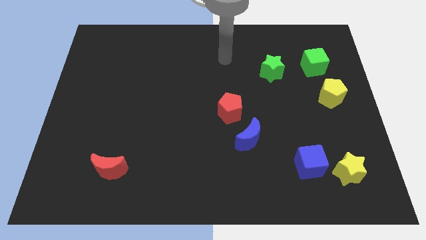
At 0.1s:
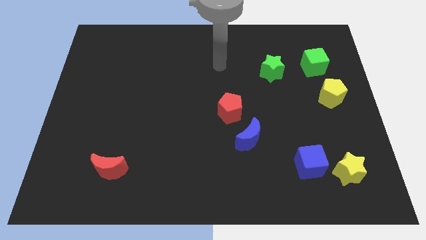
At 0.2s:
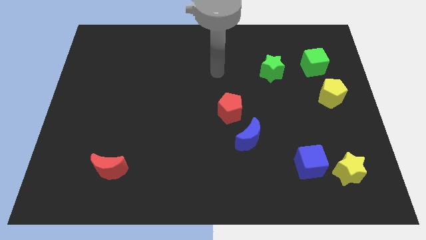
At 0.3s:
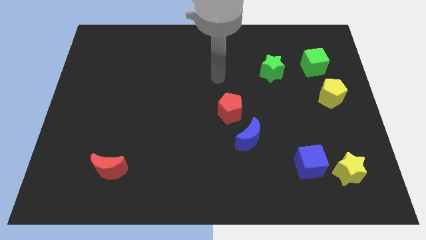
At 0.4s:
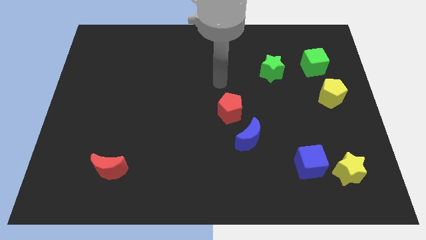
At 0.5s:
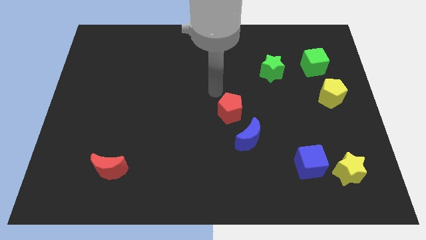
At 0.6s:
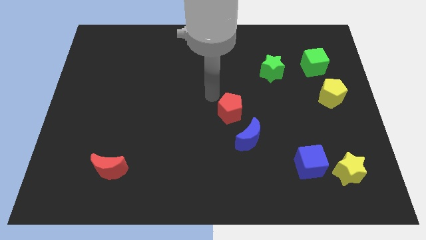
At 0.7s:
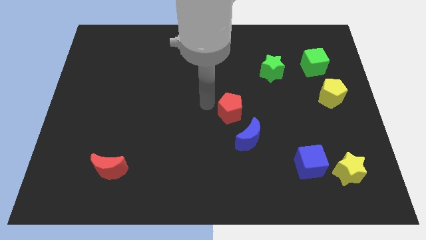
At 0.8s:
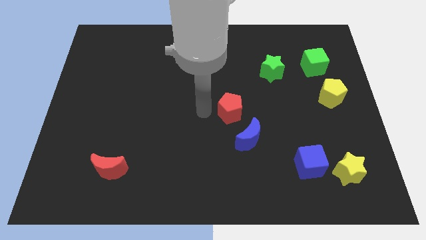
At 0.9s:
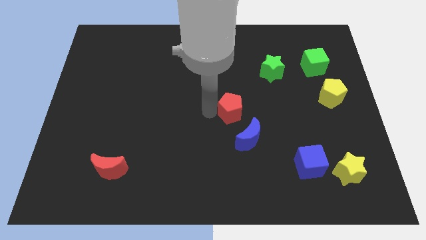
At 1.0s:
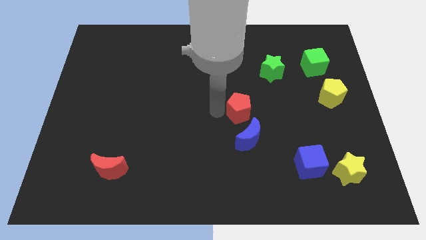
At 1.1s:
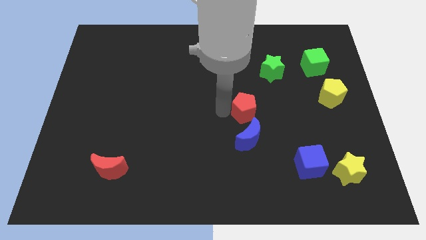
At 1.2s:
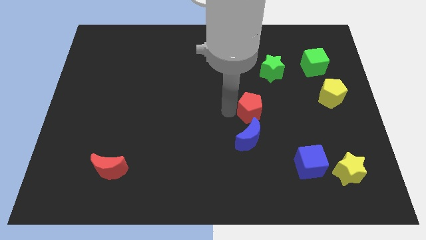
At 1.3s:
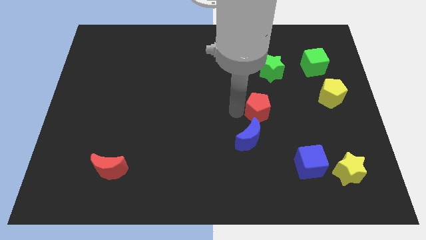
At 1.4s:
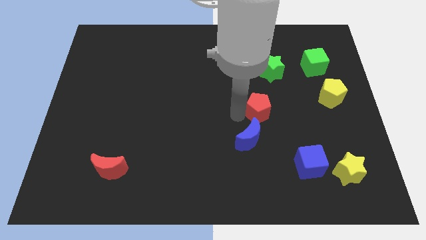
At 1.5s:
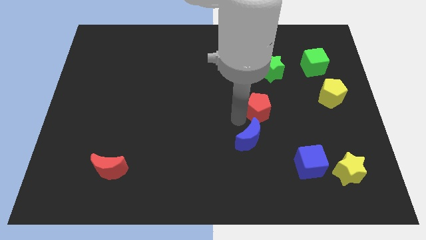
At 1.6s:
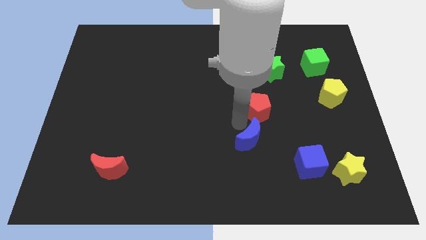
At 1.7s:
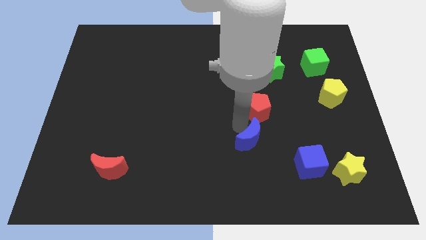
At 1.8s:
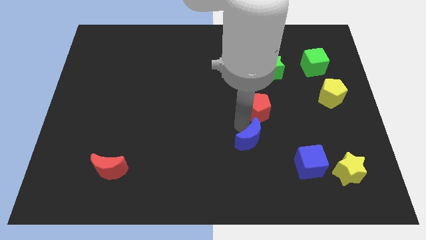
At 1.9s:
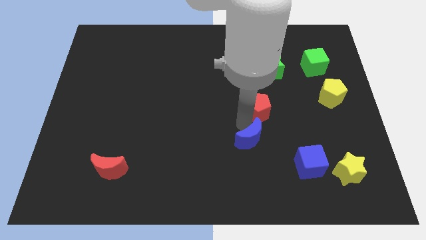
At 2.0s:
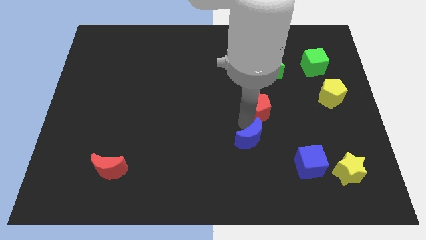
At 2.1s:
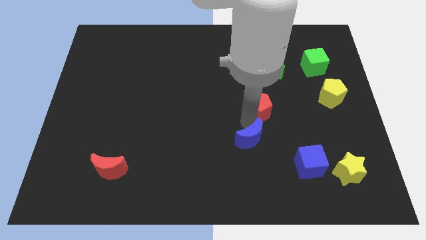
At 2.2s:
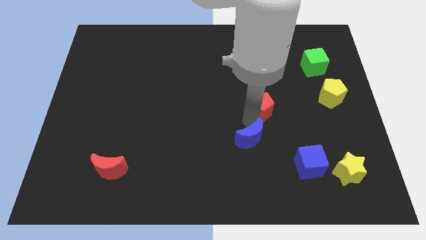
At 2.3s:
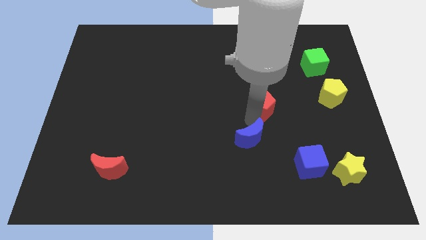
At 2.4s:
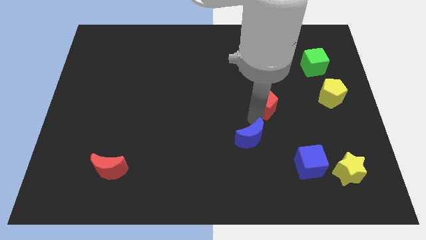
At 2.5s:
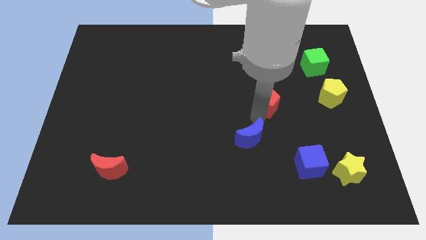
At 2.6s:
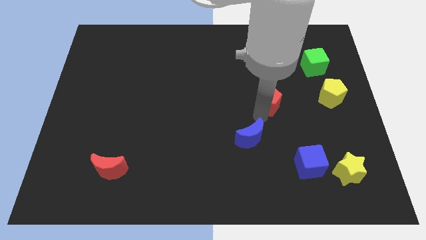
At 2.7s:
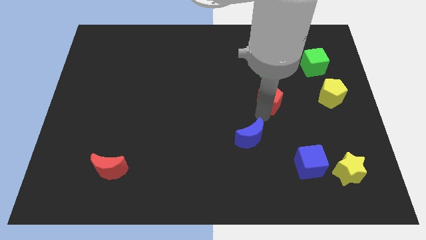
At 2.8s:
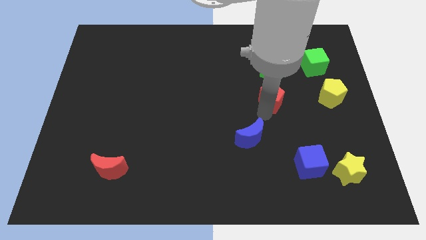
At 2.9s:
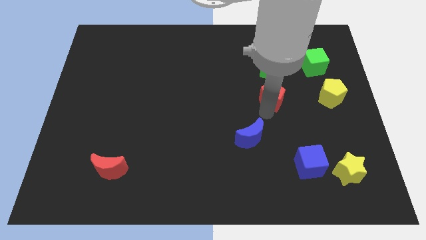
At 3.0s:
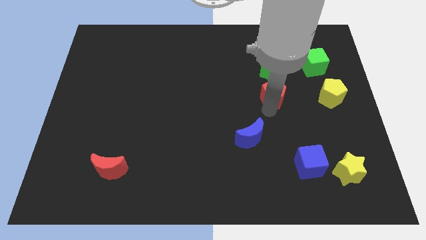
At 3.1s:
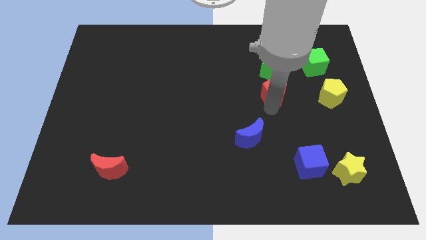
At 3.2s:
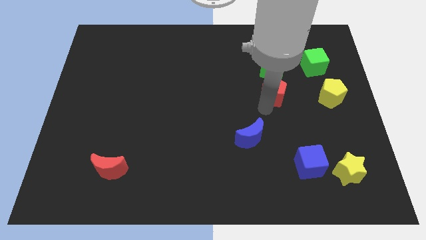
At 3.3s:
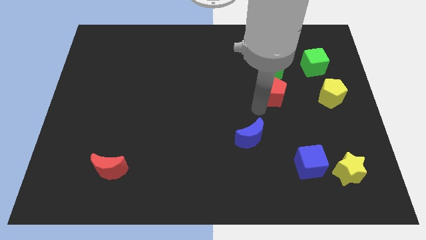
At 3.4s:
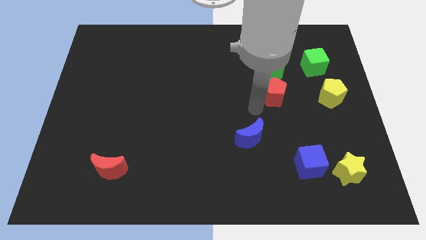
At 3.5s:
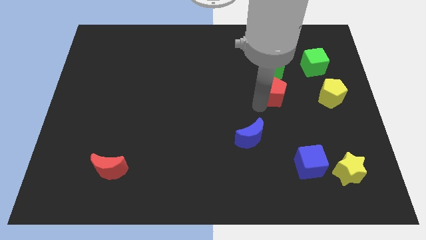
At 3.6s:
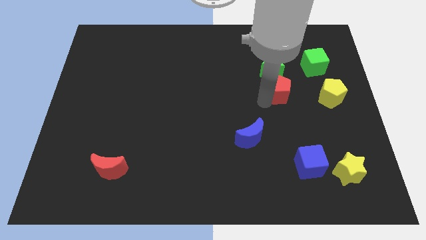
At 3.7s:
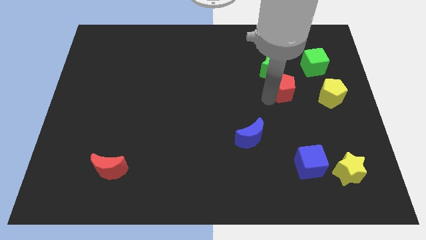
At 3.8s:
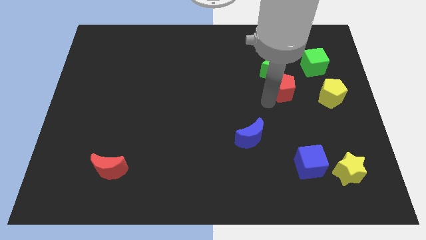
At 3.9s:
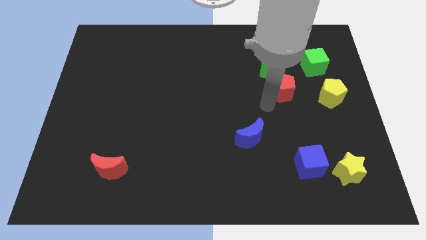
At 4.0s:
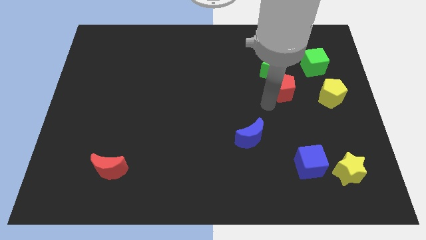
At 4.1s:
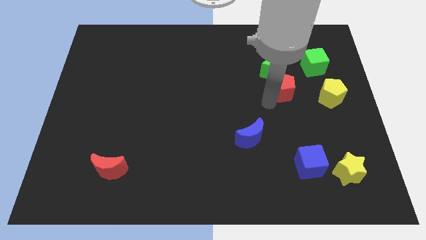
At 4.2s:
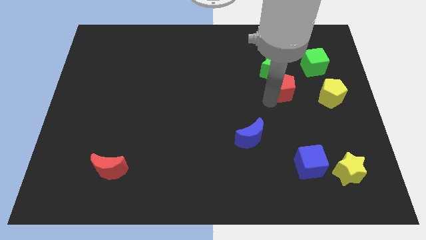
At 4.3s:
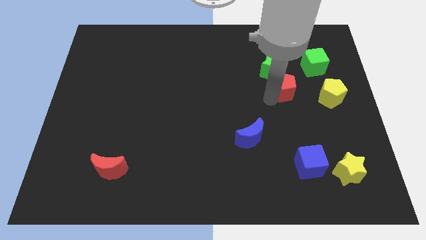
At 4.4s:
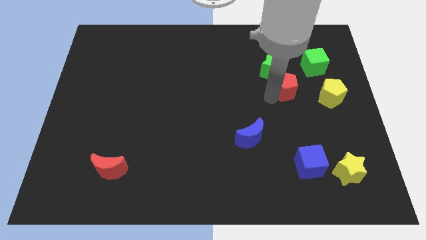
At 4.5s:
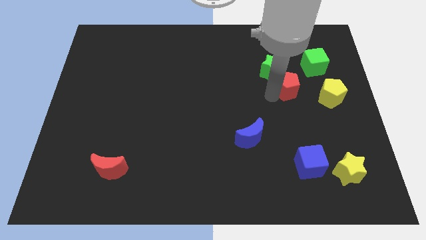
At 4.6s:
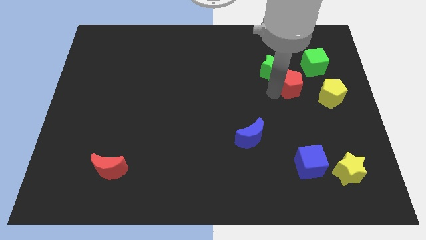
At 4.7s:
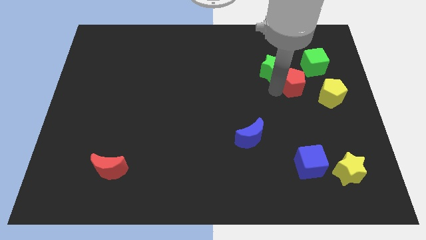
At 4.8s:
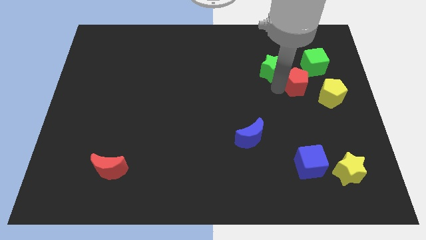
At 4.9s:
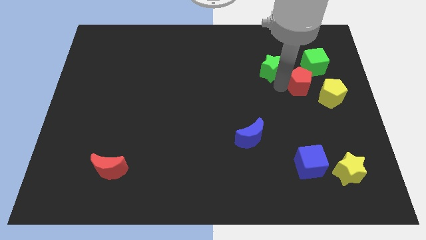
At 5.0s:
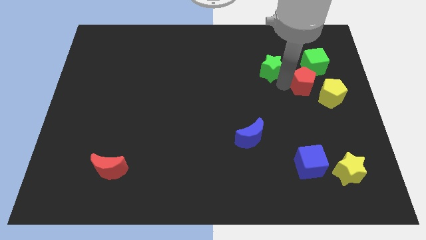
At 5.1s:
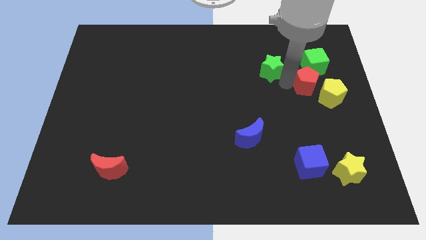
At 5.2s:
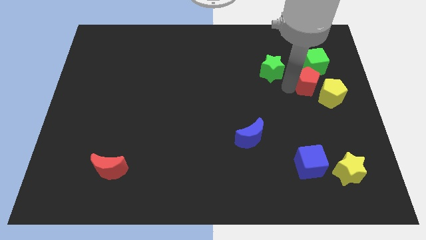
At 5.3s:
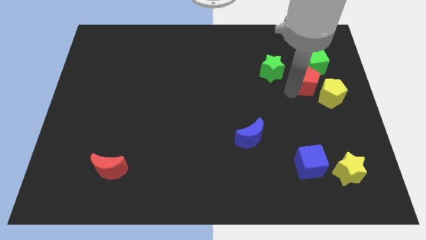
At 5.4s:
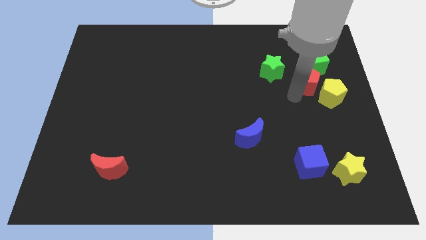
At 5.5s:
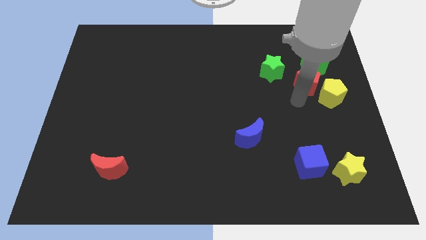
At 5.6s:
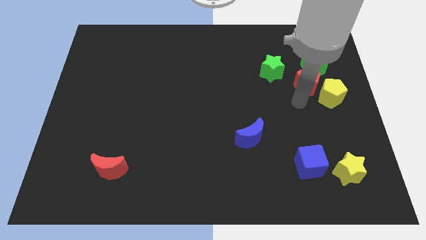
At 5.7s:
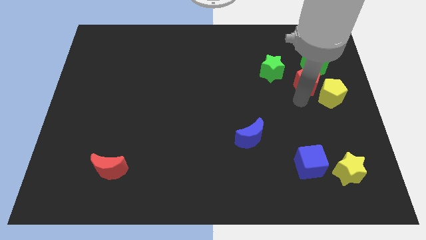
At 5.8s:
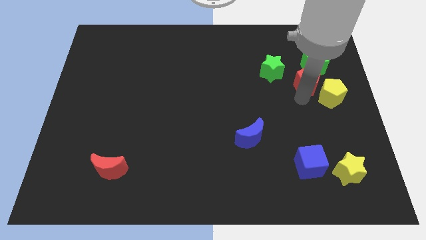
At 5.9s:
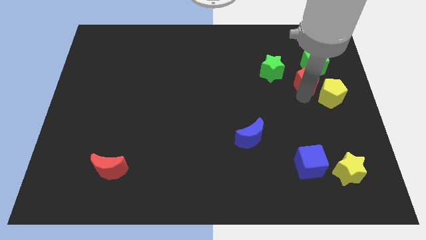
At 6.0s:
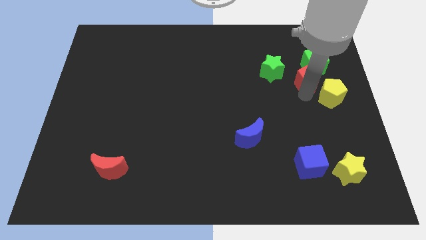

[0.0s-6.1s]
move the red pentagon next to the green cube

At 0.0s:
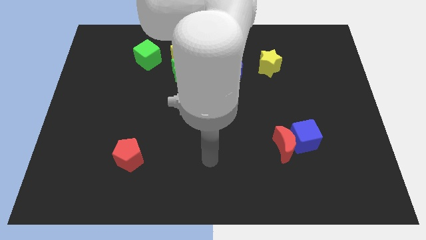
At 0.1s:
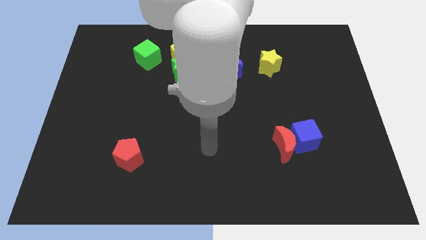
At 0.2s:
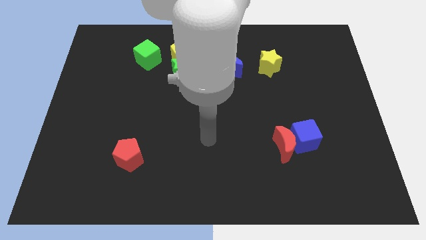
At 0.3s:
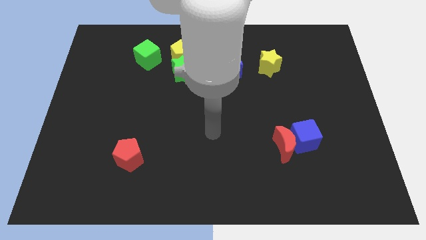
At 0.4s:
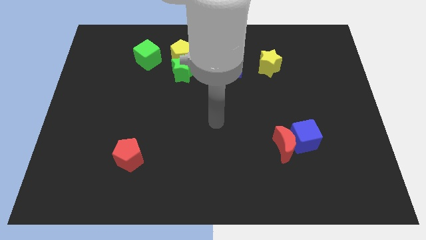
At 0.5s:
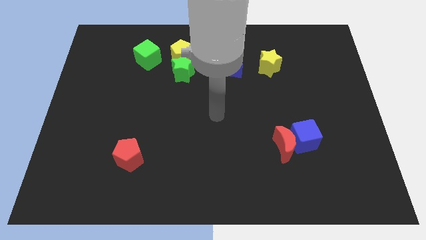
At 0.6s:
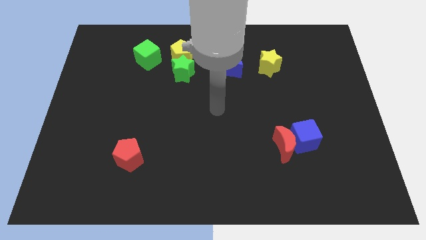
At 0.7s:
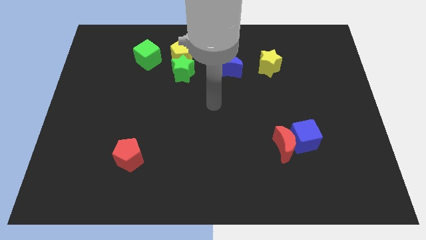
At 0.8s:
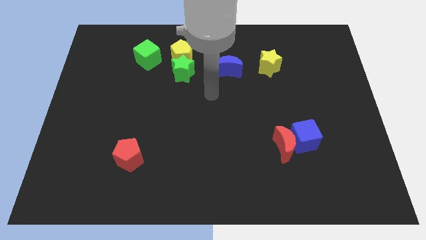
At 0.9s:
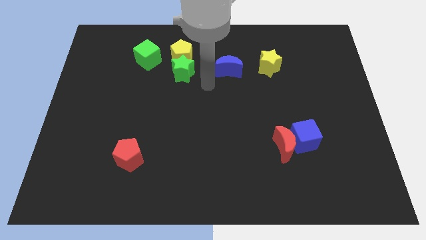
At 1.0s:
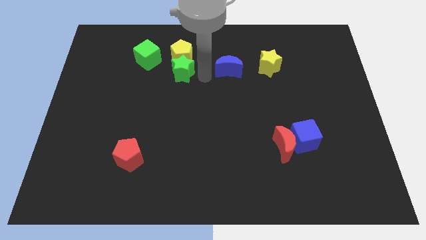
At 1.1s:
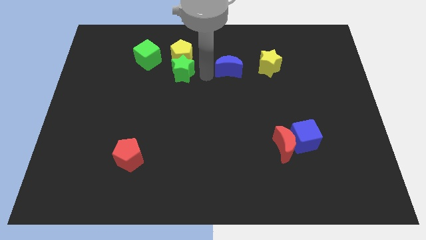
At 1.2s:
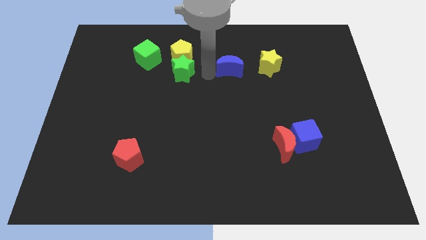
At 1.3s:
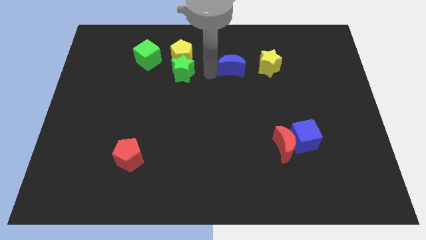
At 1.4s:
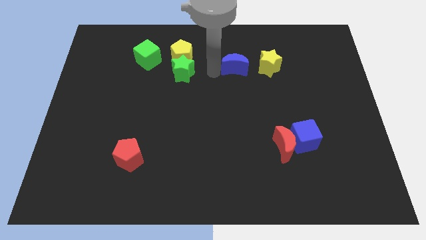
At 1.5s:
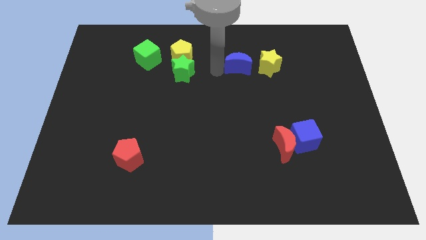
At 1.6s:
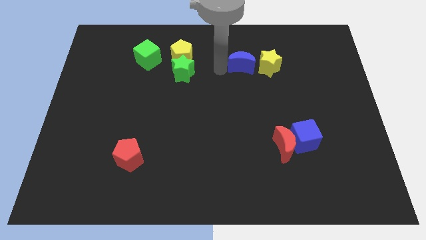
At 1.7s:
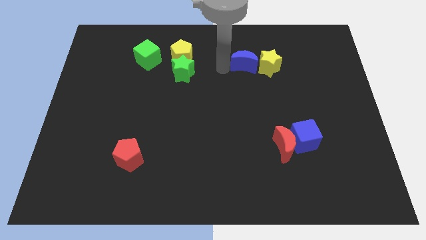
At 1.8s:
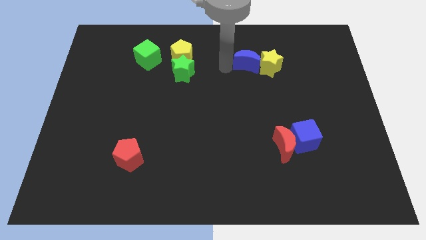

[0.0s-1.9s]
slide the blue moon towards the yellow star
